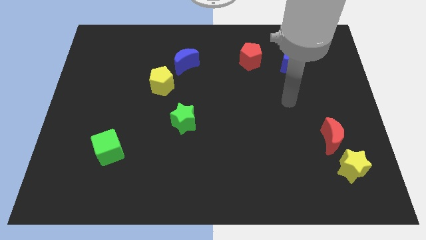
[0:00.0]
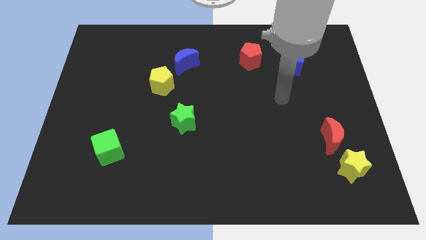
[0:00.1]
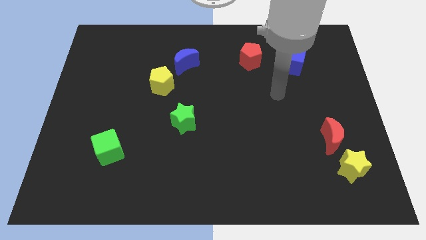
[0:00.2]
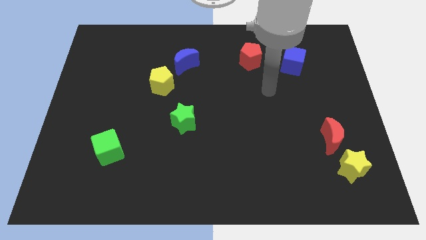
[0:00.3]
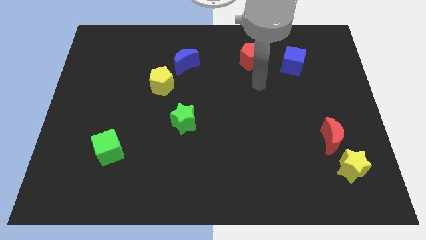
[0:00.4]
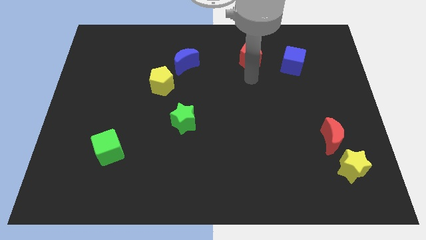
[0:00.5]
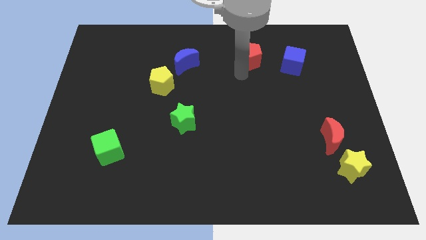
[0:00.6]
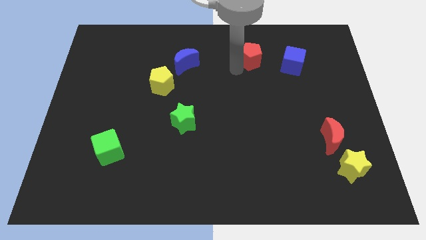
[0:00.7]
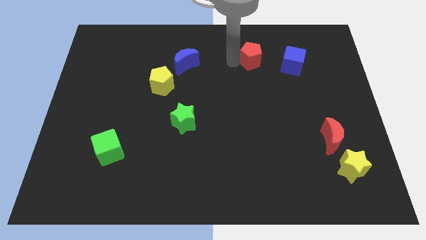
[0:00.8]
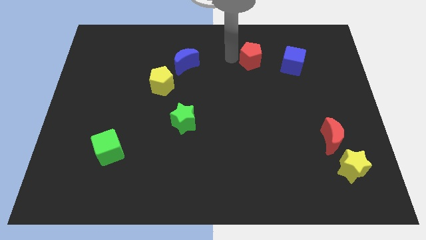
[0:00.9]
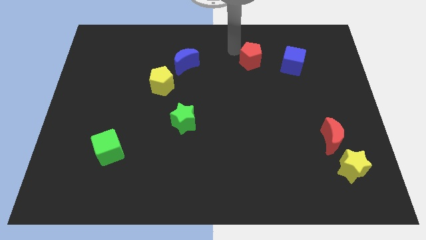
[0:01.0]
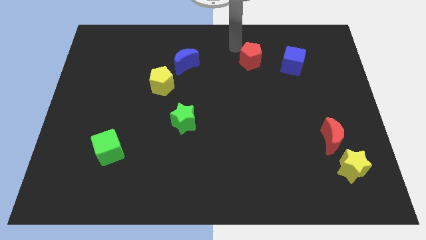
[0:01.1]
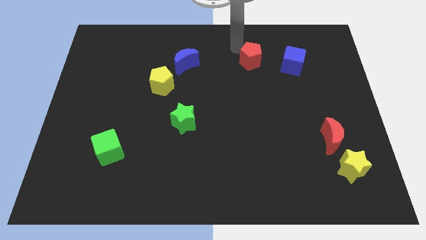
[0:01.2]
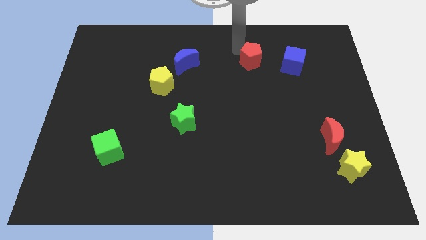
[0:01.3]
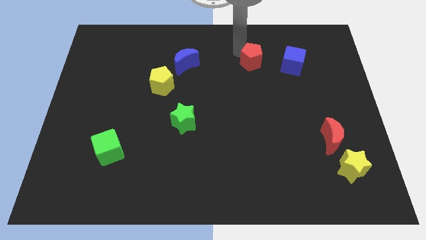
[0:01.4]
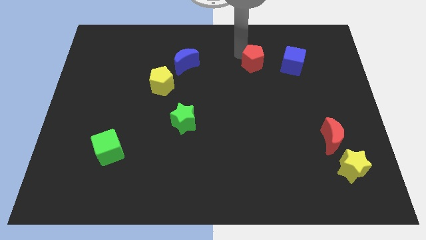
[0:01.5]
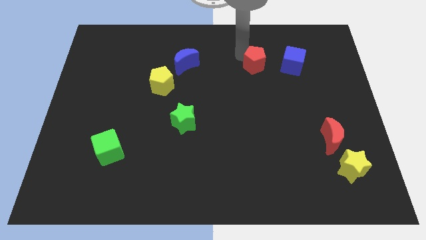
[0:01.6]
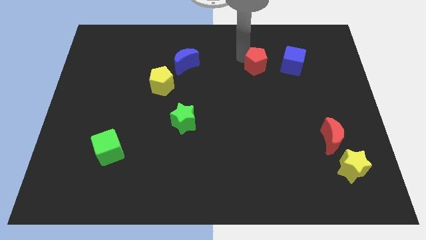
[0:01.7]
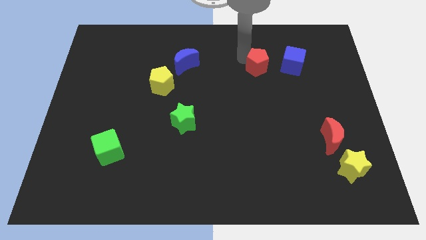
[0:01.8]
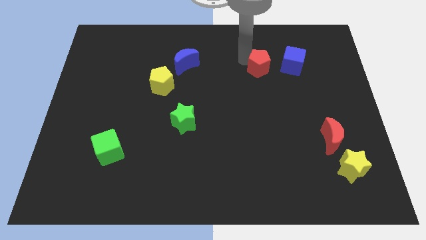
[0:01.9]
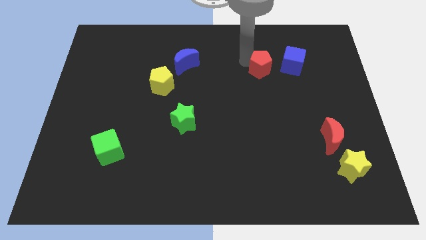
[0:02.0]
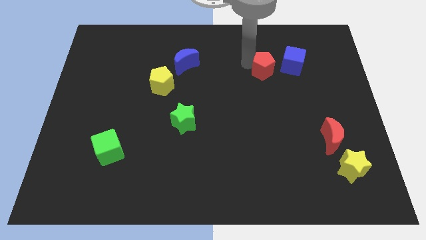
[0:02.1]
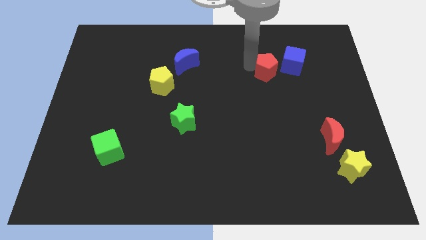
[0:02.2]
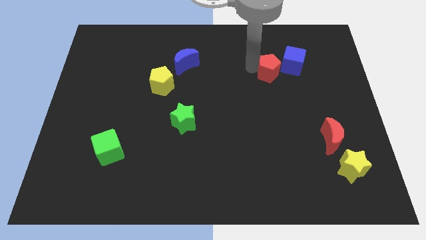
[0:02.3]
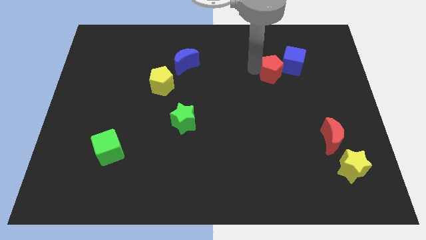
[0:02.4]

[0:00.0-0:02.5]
slide the red pentagon downwards and then to the right a little bit

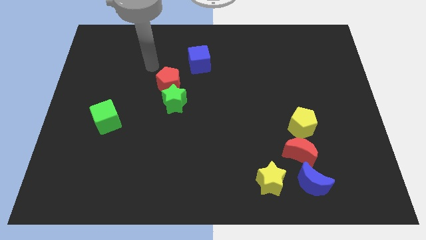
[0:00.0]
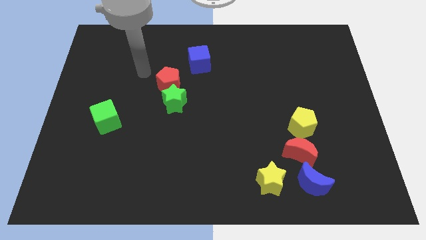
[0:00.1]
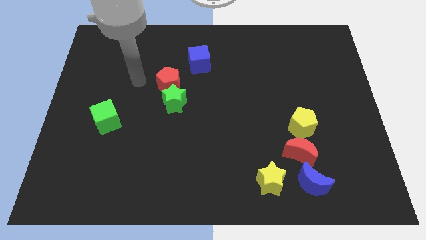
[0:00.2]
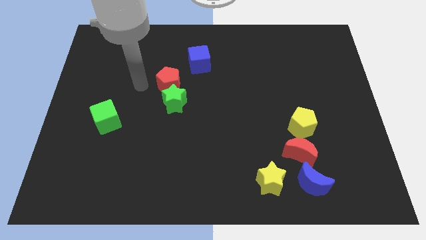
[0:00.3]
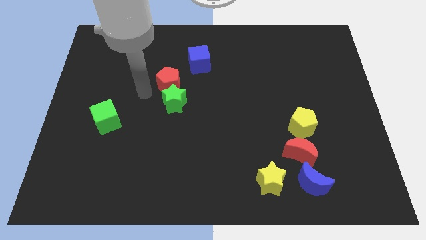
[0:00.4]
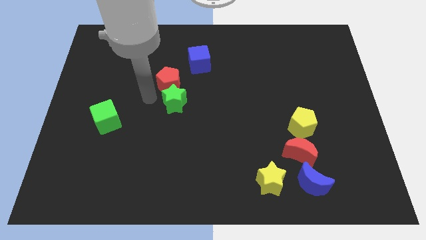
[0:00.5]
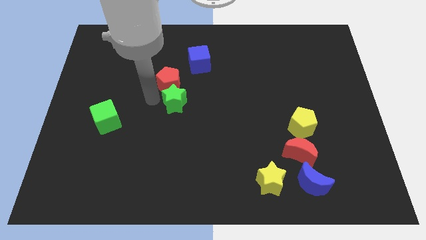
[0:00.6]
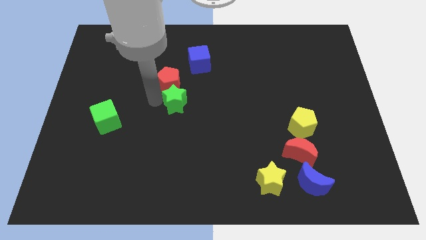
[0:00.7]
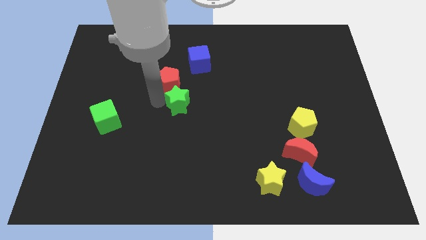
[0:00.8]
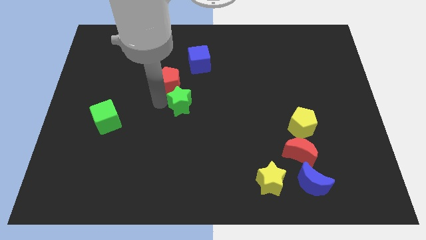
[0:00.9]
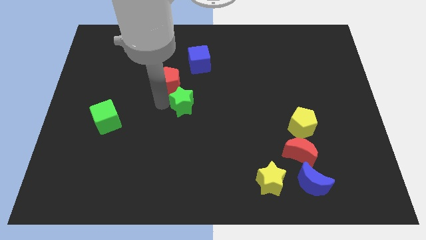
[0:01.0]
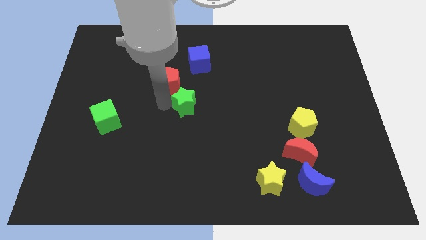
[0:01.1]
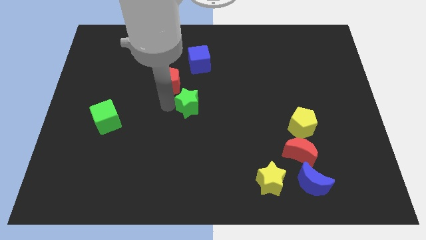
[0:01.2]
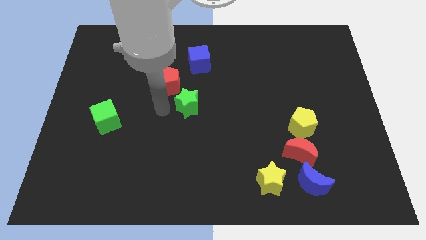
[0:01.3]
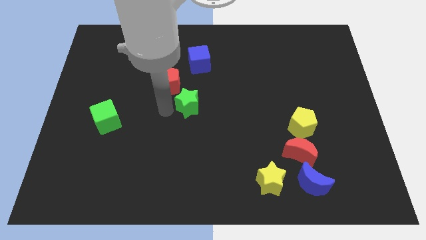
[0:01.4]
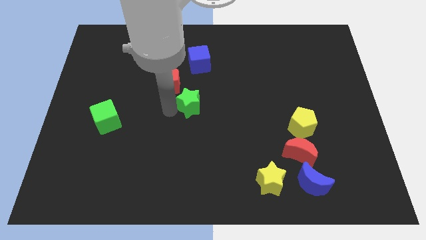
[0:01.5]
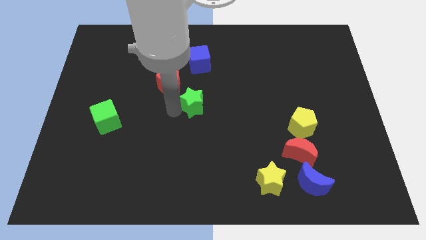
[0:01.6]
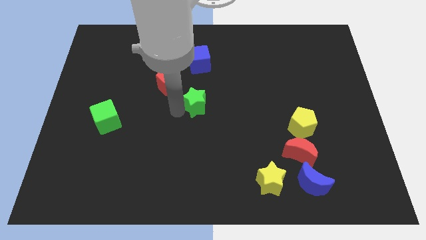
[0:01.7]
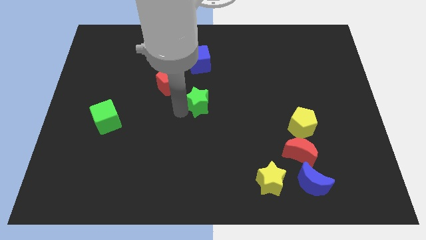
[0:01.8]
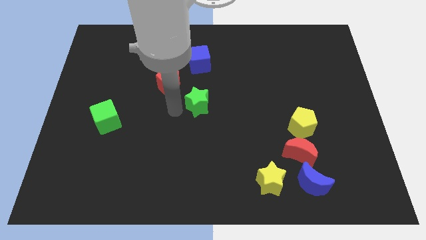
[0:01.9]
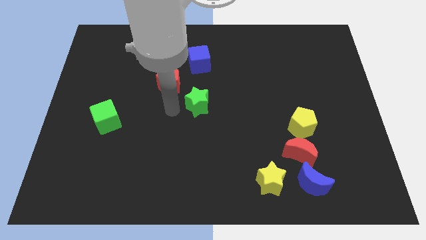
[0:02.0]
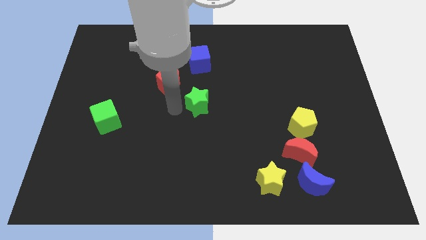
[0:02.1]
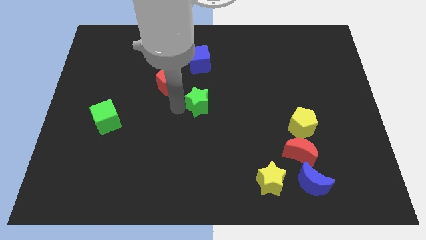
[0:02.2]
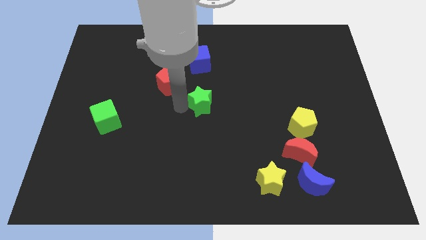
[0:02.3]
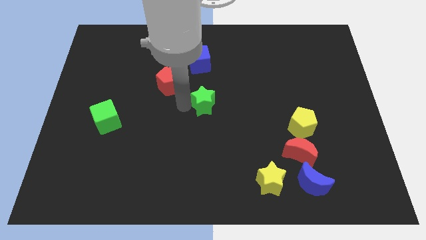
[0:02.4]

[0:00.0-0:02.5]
push the green star to the right slightly

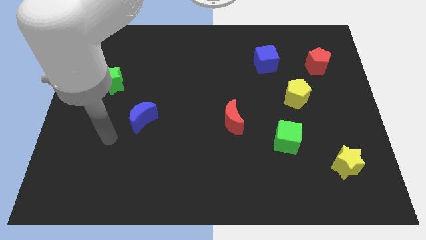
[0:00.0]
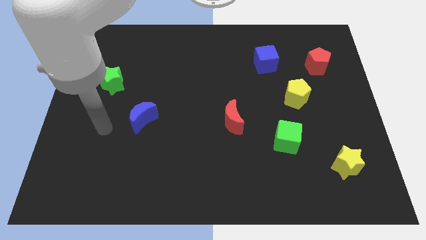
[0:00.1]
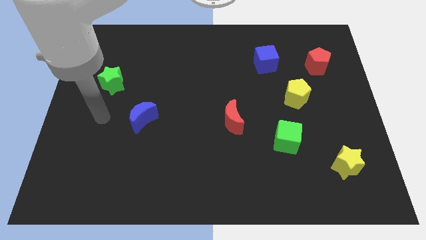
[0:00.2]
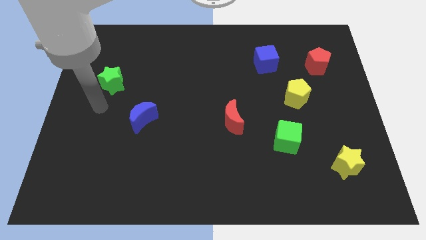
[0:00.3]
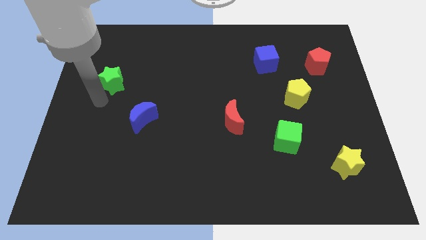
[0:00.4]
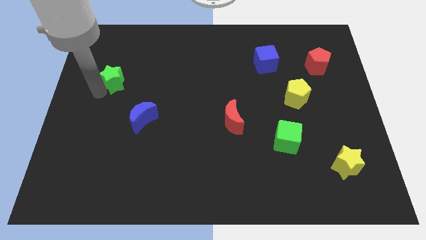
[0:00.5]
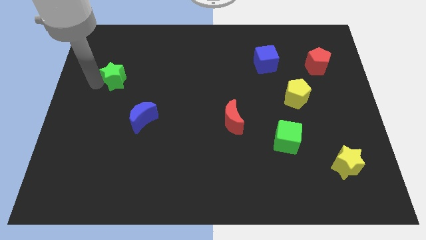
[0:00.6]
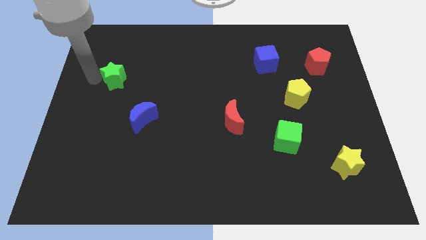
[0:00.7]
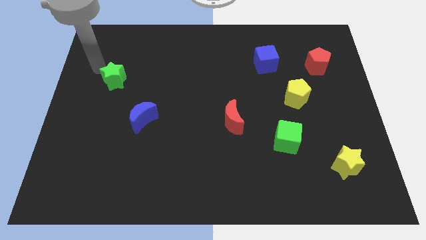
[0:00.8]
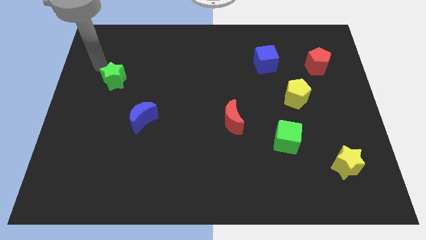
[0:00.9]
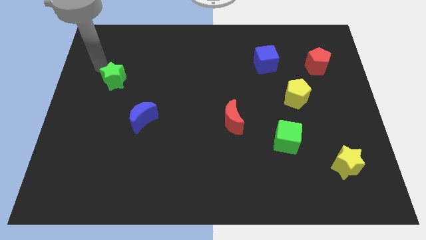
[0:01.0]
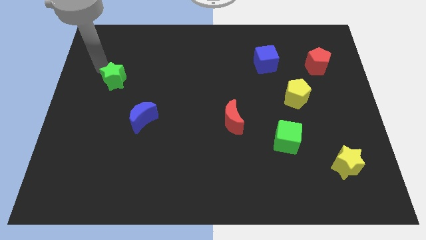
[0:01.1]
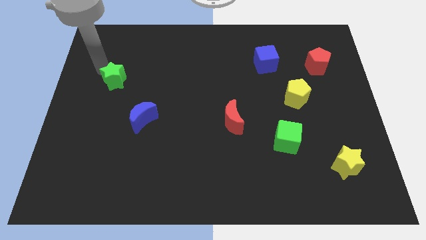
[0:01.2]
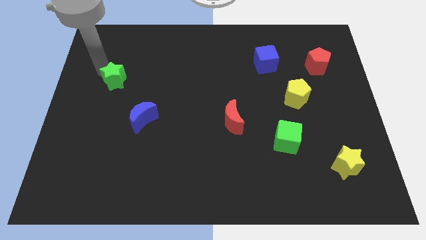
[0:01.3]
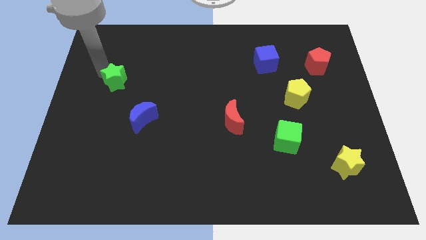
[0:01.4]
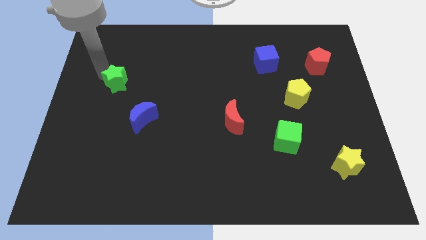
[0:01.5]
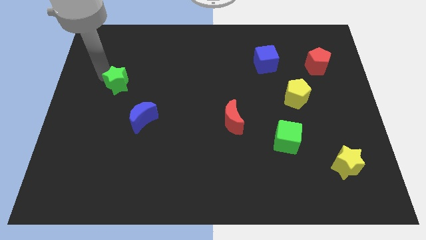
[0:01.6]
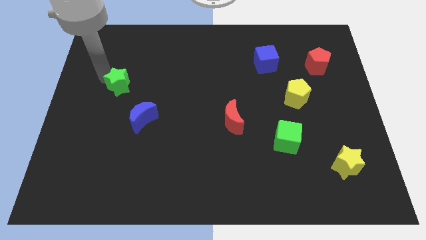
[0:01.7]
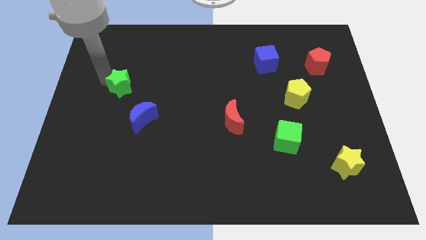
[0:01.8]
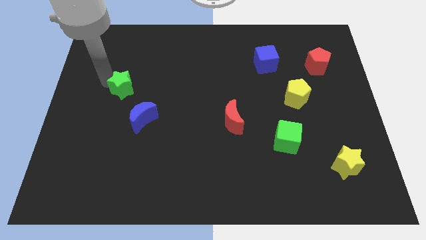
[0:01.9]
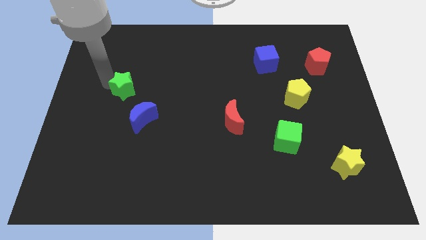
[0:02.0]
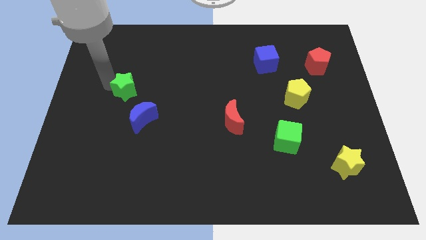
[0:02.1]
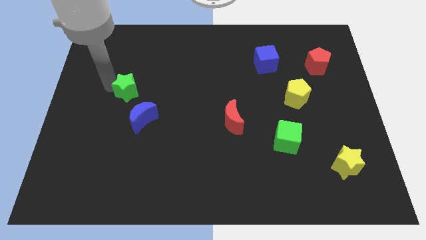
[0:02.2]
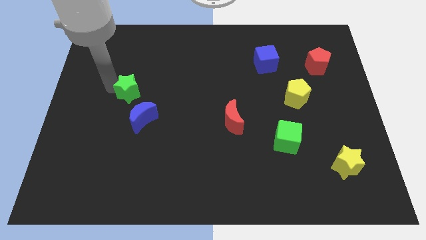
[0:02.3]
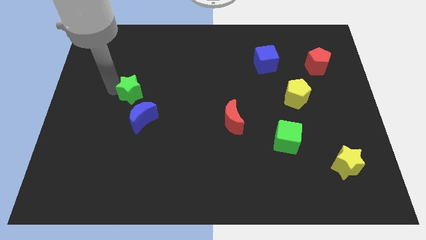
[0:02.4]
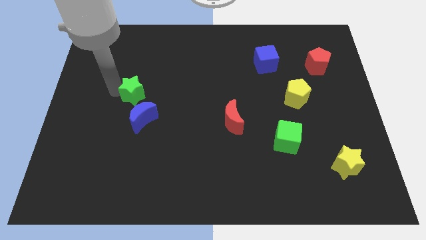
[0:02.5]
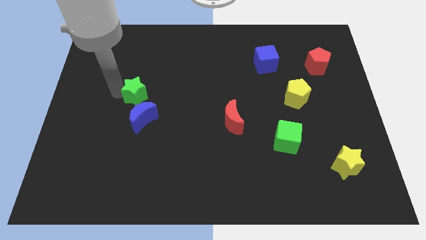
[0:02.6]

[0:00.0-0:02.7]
slightly push the green star down and to the right

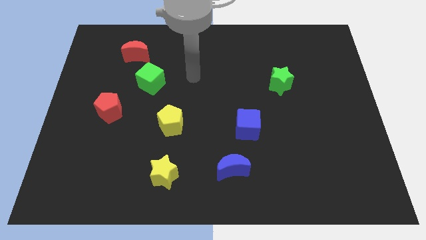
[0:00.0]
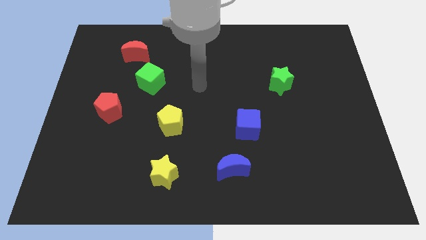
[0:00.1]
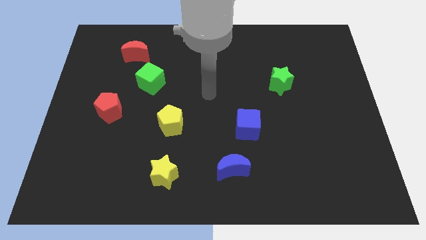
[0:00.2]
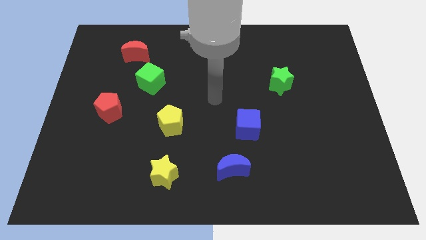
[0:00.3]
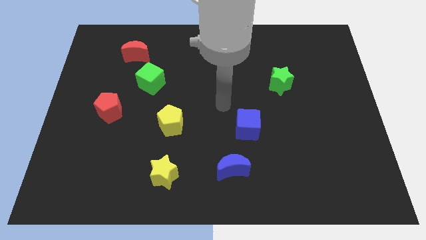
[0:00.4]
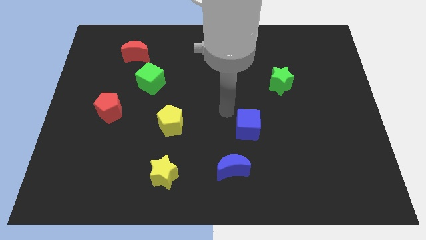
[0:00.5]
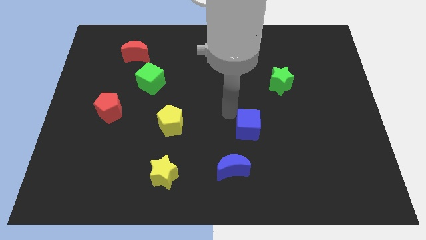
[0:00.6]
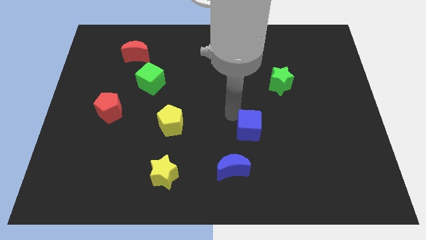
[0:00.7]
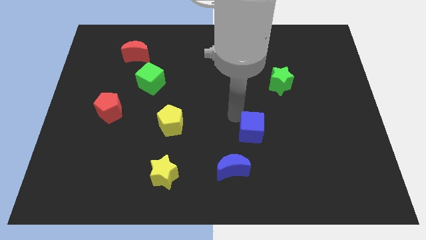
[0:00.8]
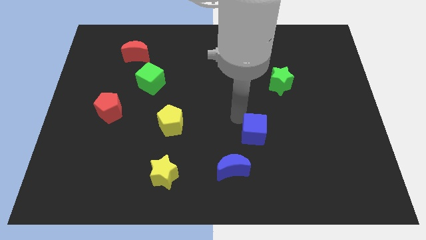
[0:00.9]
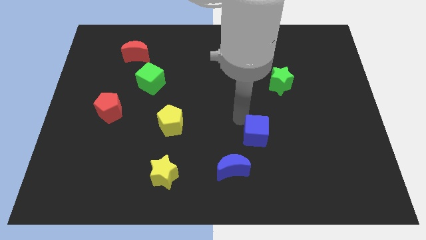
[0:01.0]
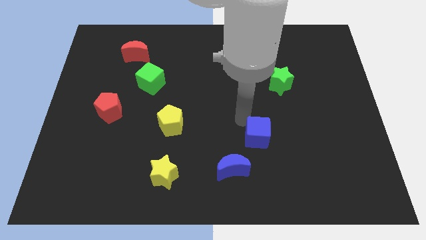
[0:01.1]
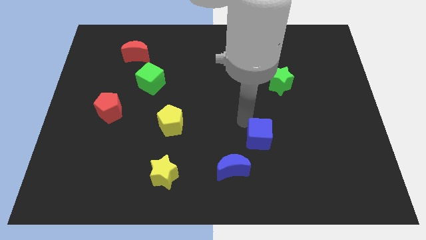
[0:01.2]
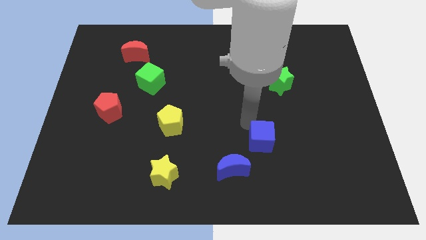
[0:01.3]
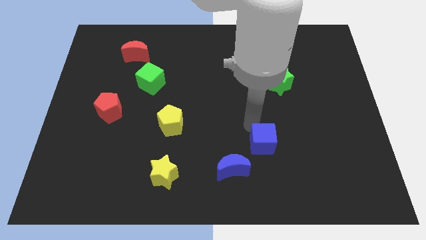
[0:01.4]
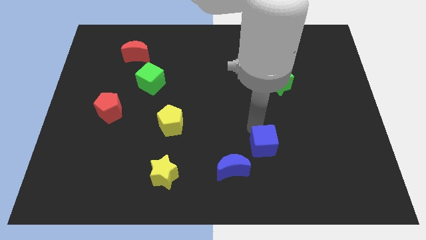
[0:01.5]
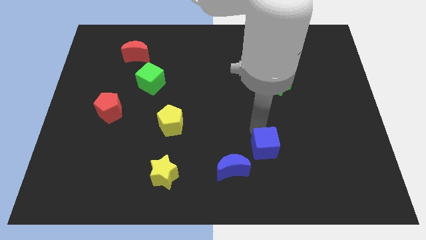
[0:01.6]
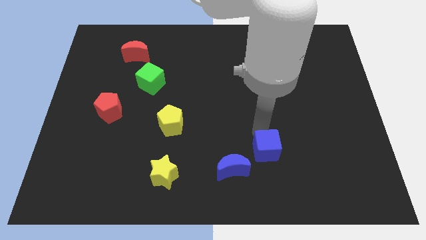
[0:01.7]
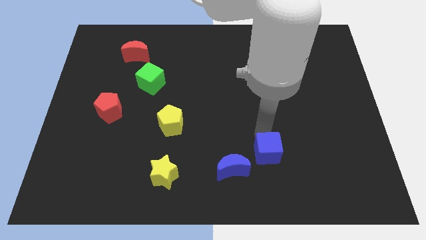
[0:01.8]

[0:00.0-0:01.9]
slide the blue cube diagonally down and to the right a little
